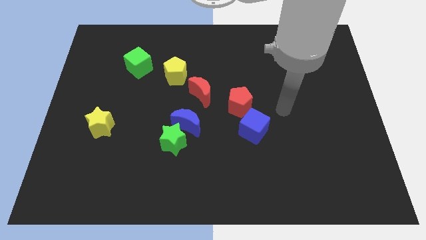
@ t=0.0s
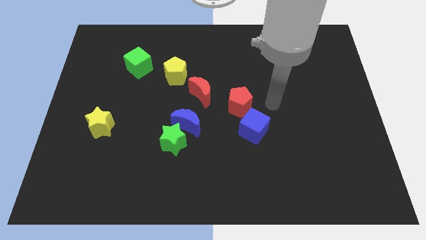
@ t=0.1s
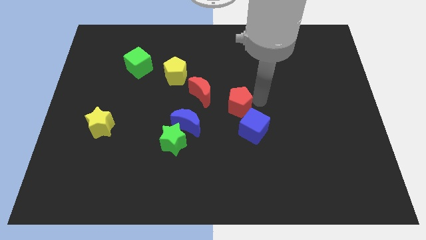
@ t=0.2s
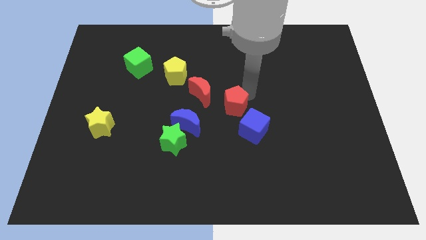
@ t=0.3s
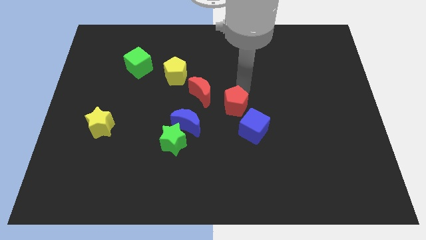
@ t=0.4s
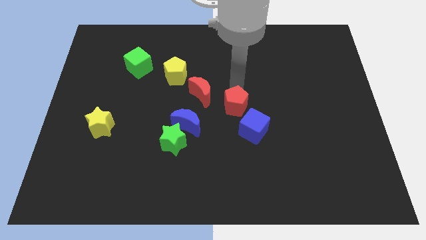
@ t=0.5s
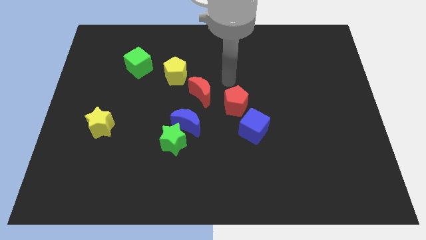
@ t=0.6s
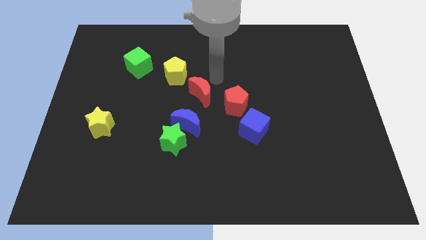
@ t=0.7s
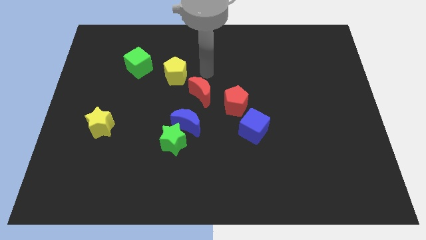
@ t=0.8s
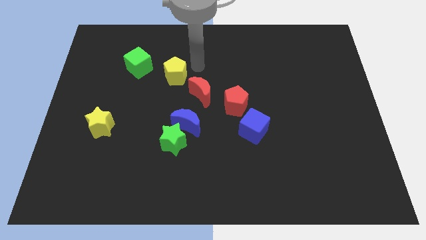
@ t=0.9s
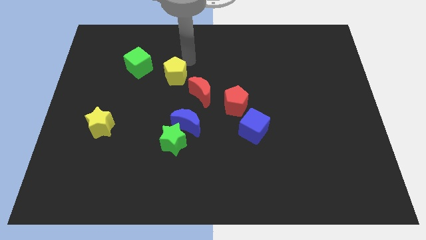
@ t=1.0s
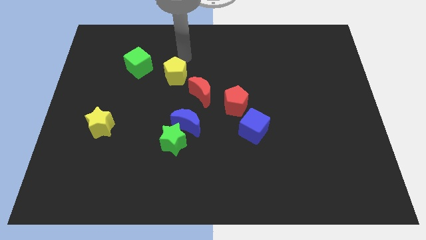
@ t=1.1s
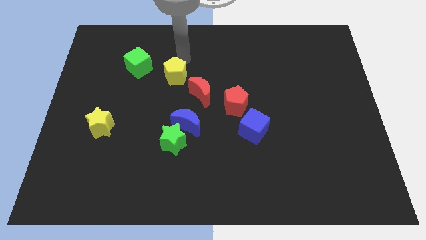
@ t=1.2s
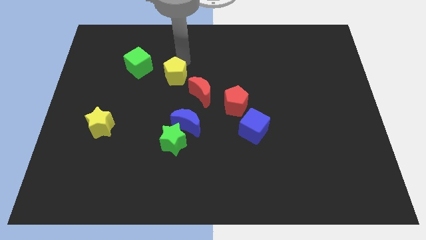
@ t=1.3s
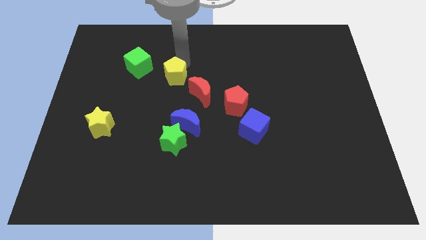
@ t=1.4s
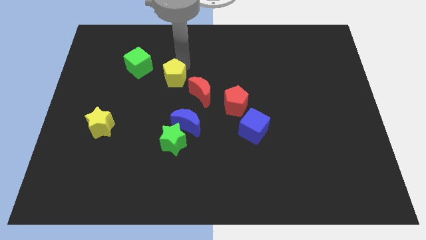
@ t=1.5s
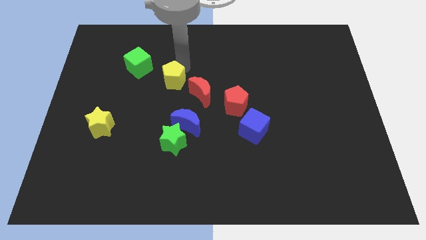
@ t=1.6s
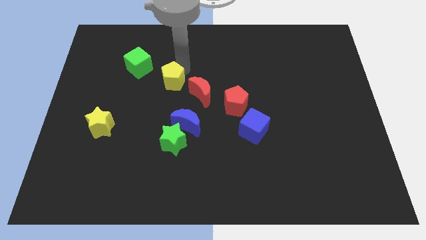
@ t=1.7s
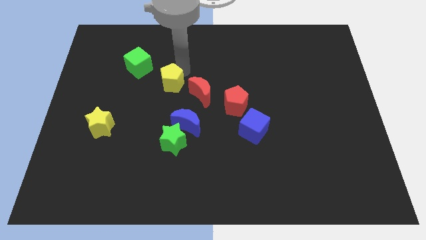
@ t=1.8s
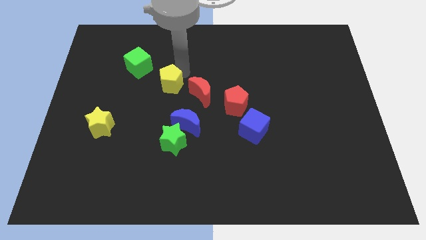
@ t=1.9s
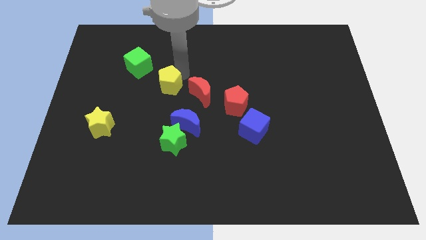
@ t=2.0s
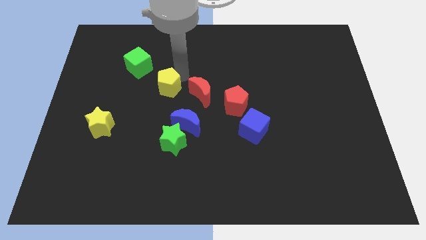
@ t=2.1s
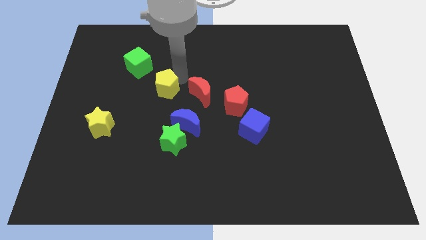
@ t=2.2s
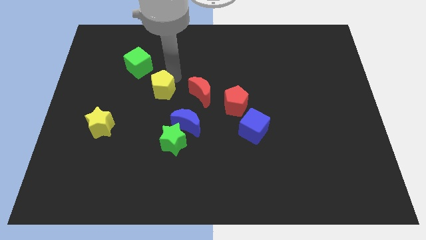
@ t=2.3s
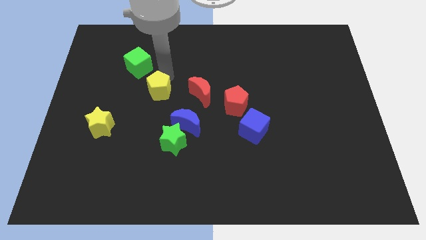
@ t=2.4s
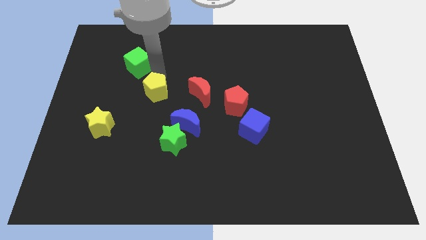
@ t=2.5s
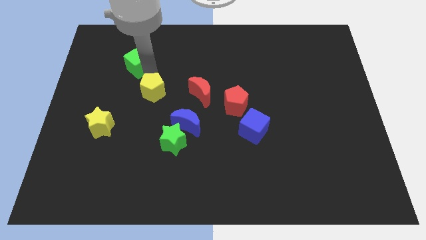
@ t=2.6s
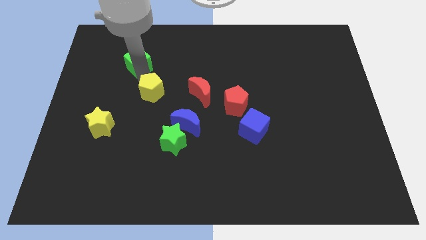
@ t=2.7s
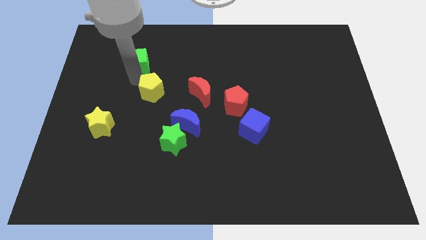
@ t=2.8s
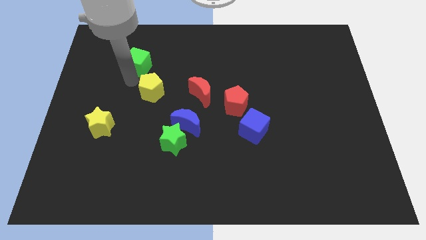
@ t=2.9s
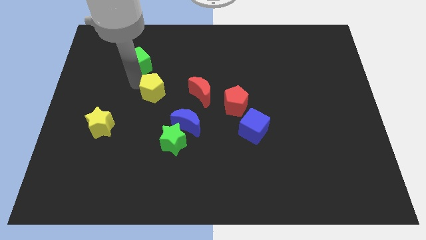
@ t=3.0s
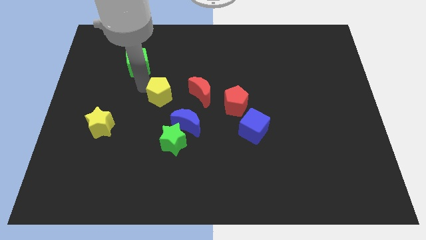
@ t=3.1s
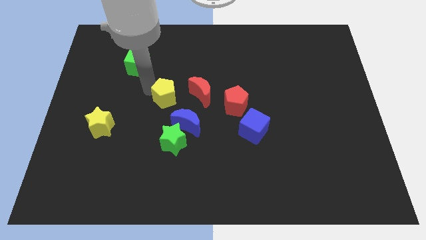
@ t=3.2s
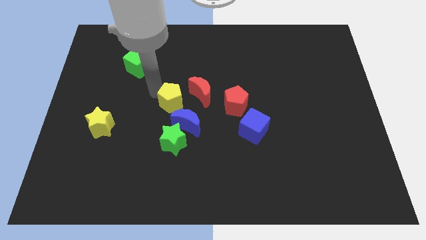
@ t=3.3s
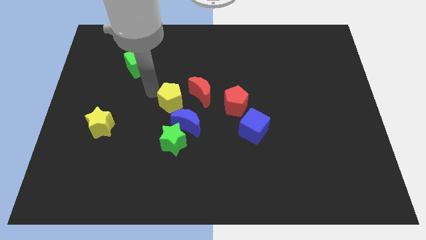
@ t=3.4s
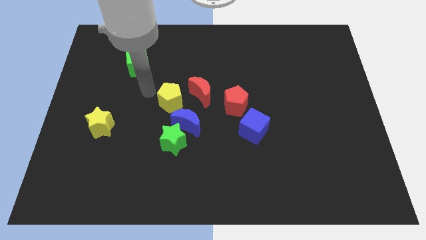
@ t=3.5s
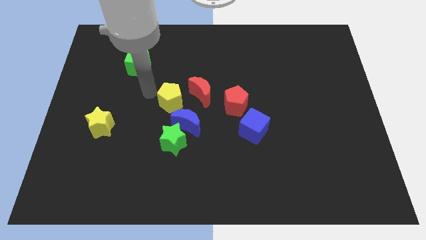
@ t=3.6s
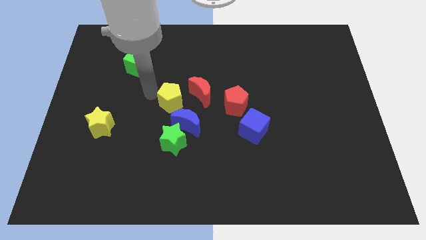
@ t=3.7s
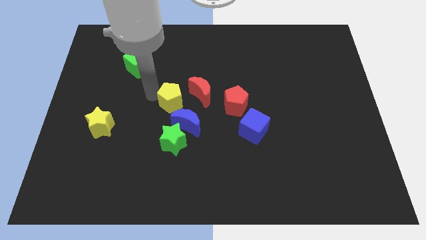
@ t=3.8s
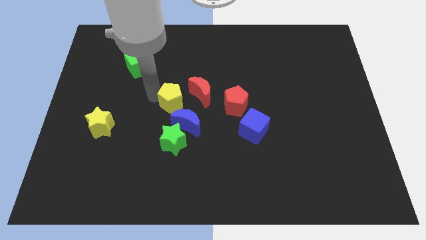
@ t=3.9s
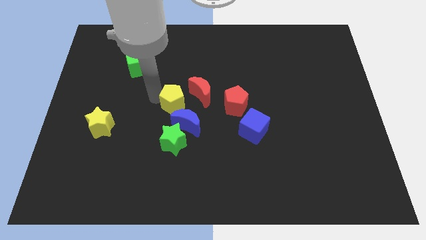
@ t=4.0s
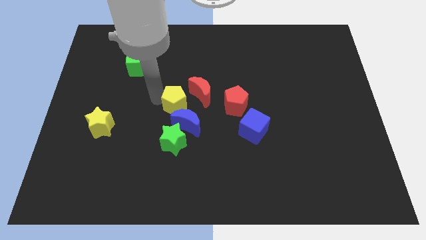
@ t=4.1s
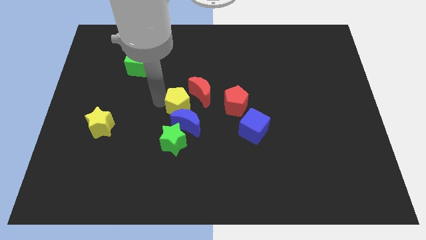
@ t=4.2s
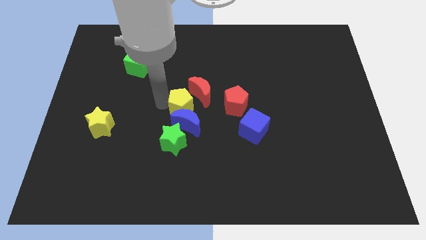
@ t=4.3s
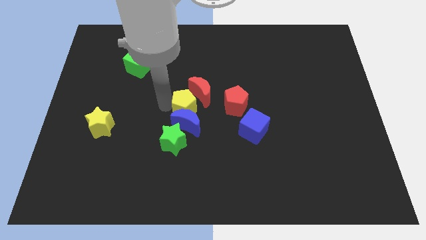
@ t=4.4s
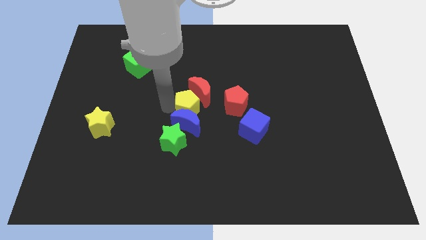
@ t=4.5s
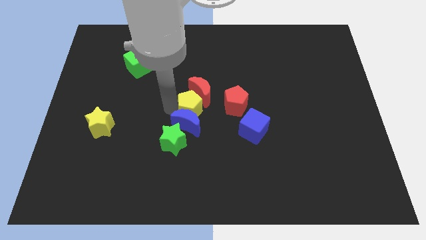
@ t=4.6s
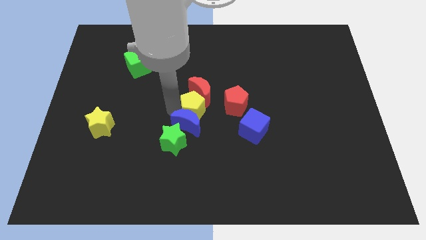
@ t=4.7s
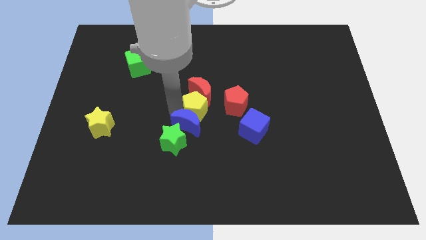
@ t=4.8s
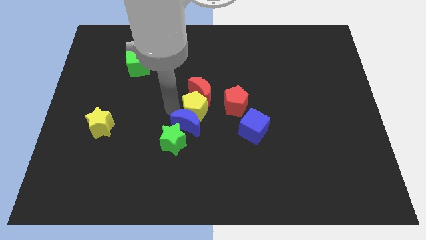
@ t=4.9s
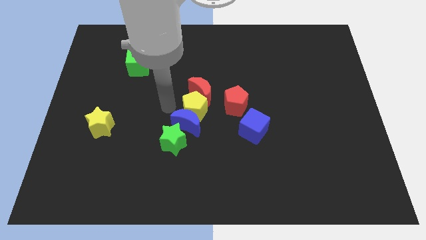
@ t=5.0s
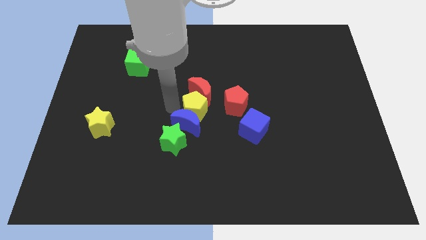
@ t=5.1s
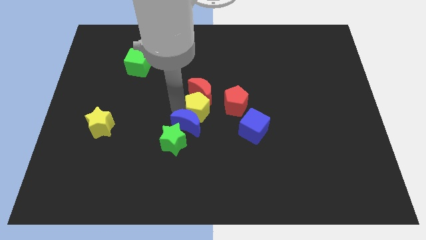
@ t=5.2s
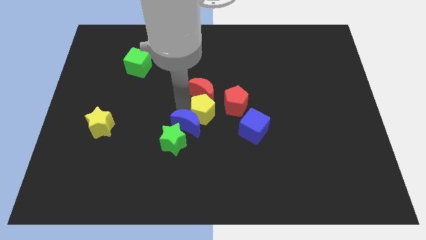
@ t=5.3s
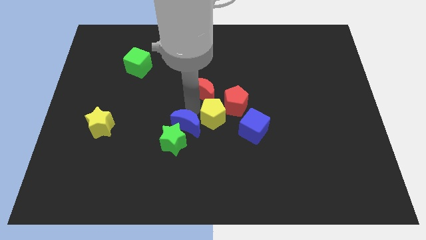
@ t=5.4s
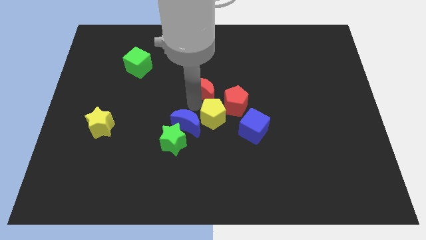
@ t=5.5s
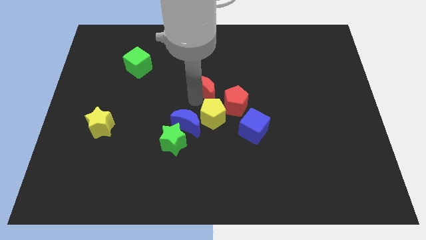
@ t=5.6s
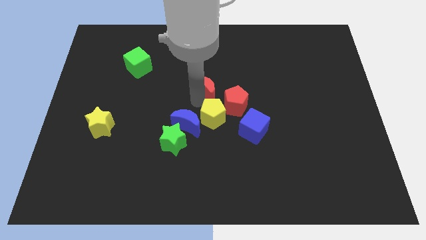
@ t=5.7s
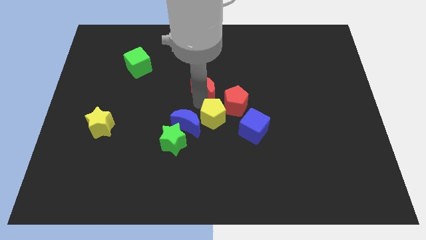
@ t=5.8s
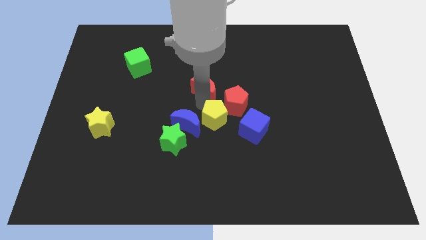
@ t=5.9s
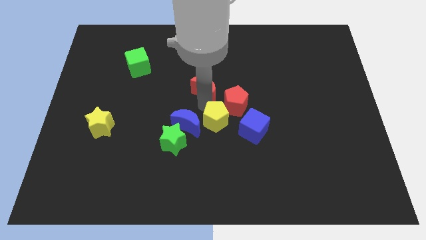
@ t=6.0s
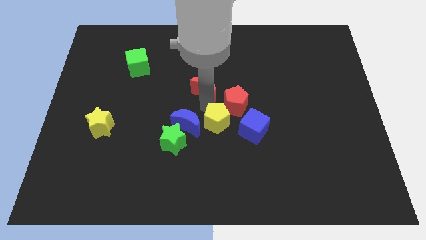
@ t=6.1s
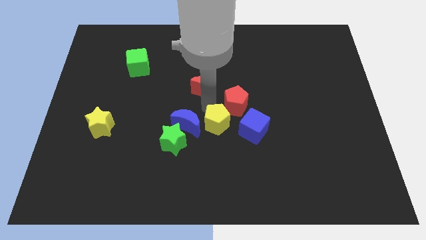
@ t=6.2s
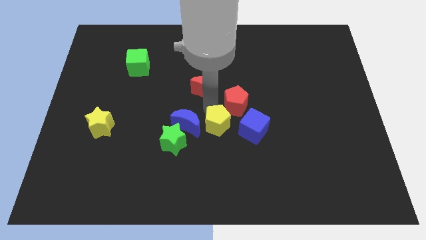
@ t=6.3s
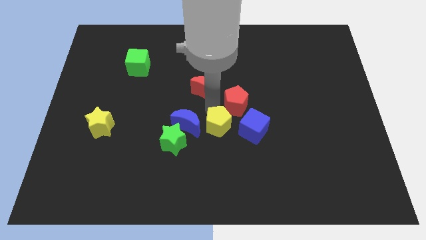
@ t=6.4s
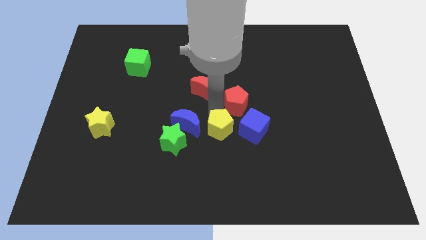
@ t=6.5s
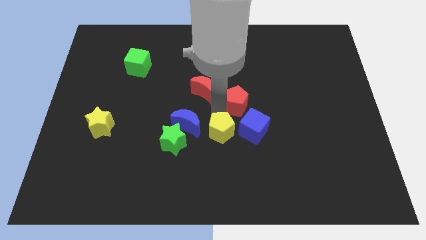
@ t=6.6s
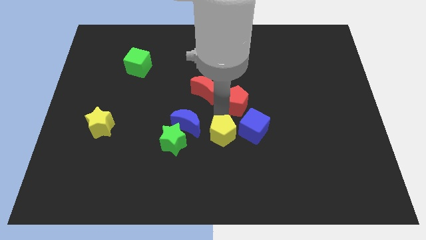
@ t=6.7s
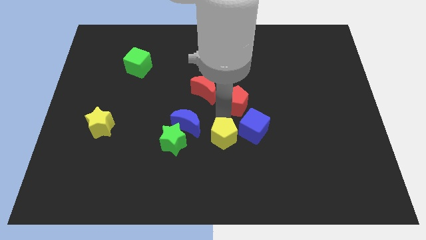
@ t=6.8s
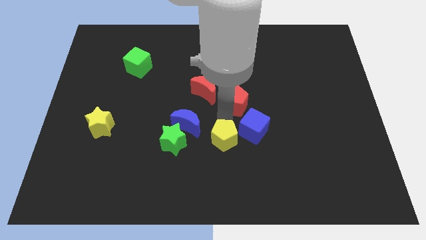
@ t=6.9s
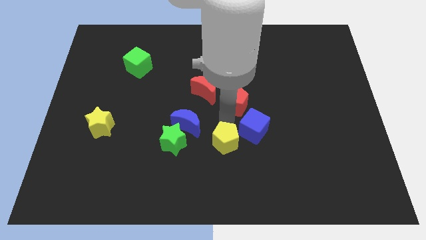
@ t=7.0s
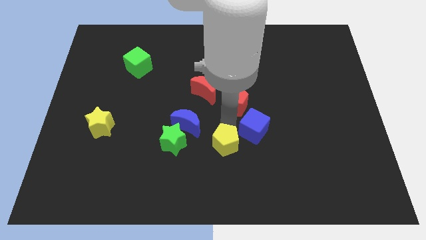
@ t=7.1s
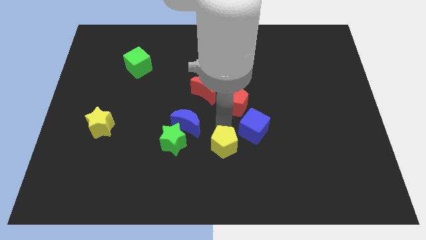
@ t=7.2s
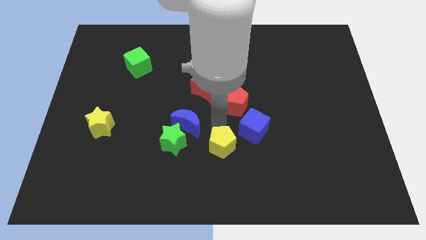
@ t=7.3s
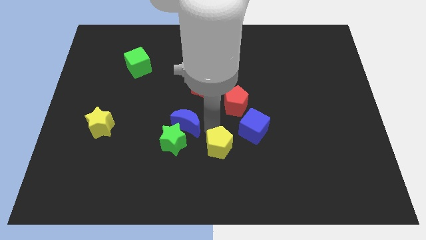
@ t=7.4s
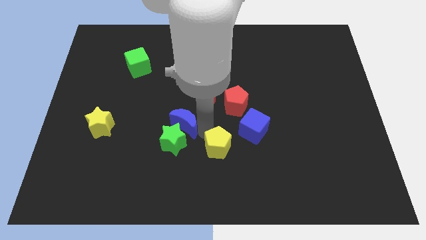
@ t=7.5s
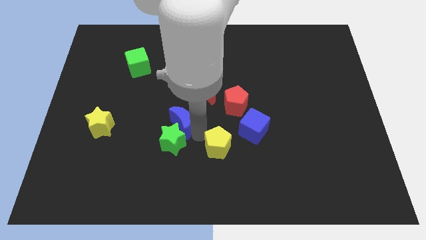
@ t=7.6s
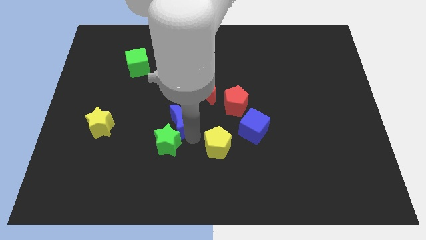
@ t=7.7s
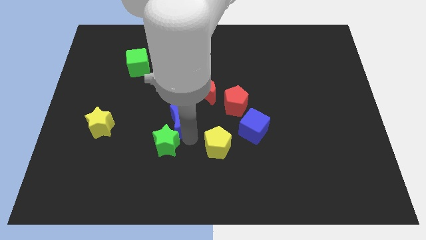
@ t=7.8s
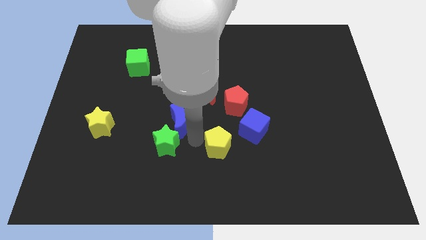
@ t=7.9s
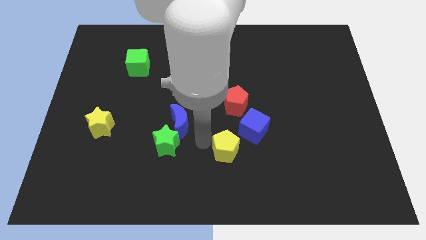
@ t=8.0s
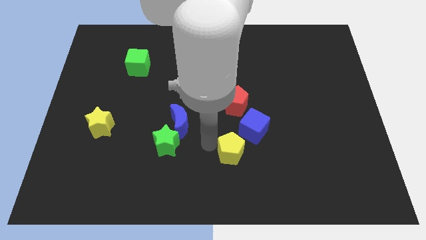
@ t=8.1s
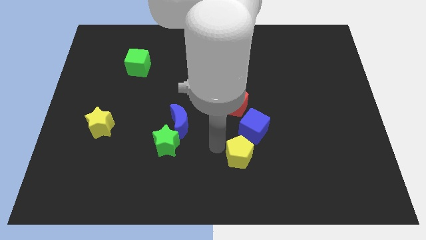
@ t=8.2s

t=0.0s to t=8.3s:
put the yellow pentagon to the bottom of the blue cube
